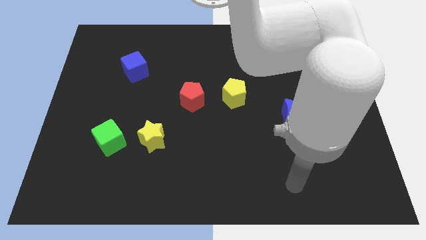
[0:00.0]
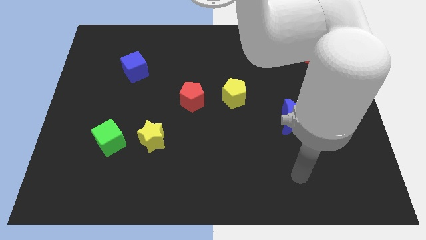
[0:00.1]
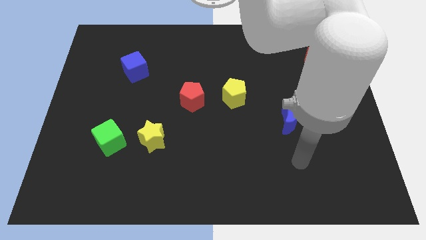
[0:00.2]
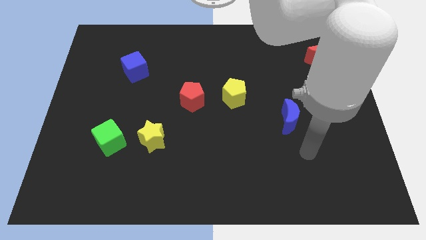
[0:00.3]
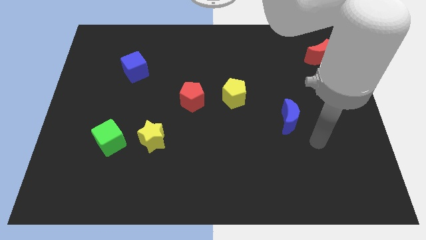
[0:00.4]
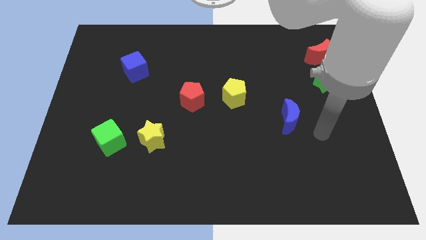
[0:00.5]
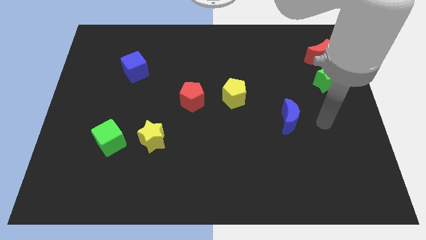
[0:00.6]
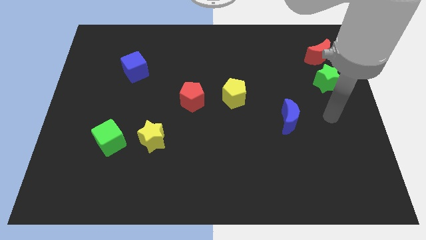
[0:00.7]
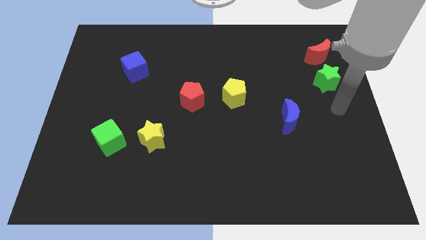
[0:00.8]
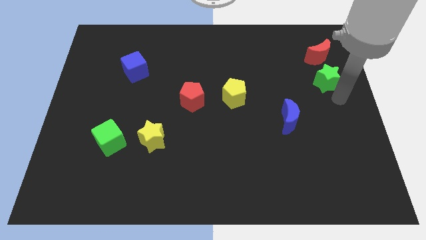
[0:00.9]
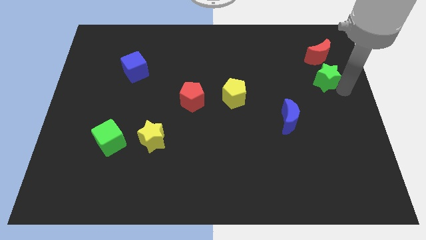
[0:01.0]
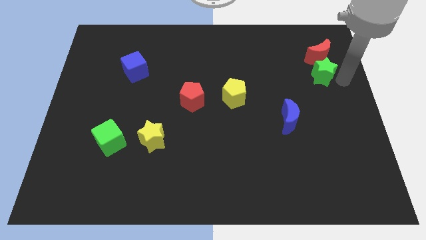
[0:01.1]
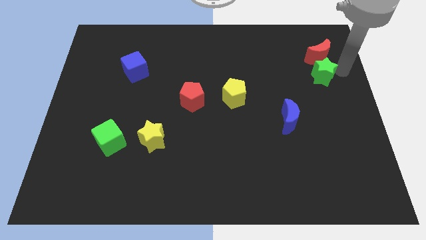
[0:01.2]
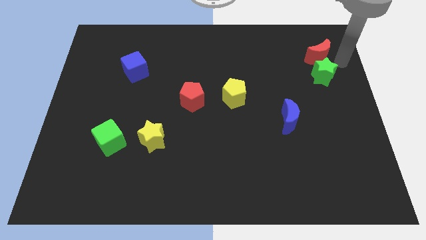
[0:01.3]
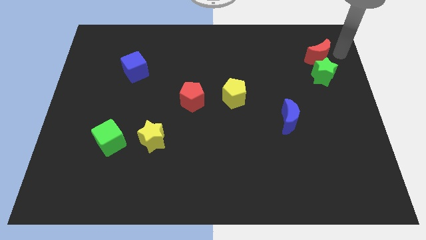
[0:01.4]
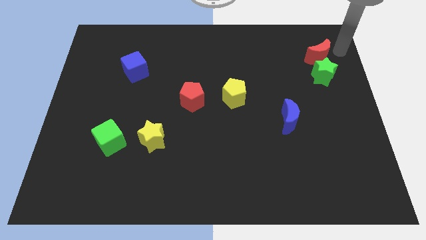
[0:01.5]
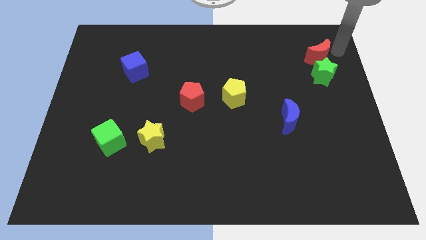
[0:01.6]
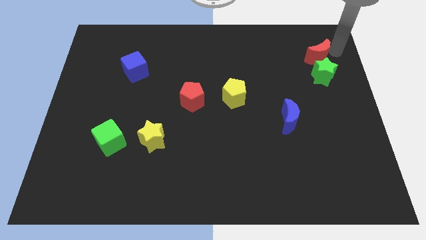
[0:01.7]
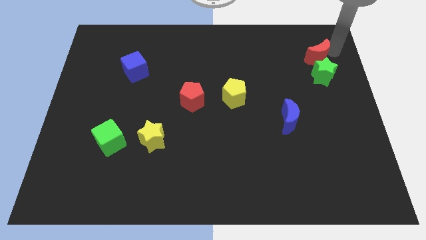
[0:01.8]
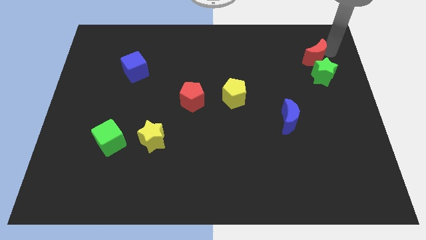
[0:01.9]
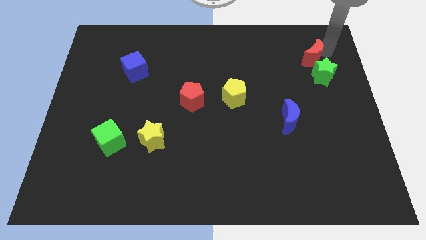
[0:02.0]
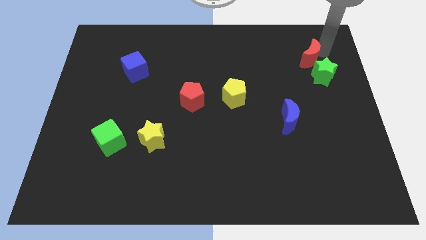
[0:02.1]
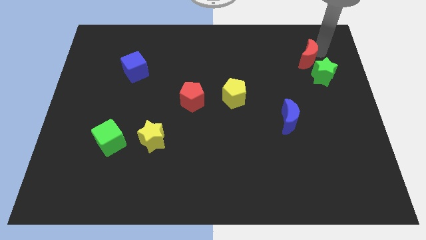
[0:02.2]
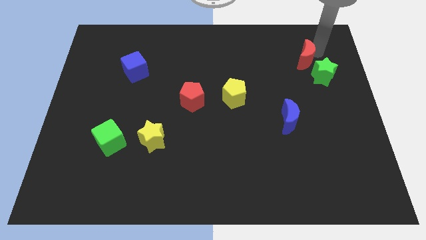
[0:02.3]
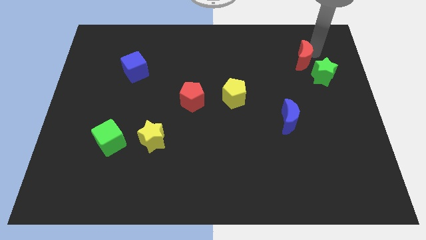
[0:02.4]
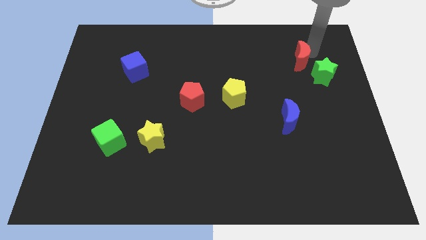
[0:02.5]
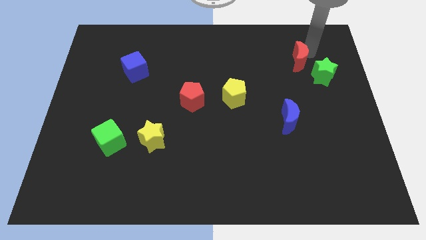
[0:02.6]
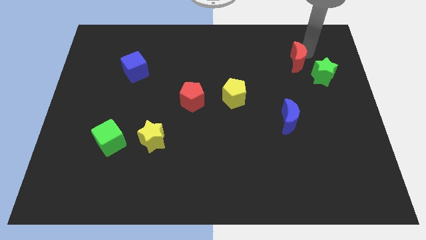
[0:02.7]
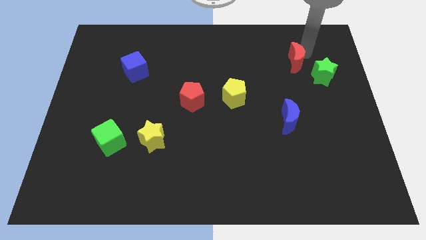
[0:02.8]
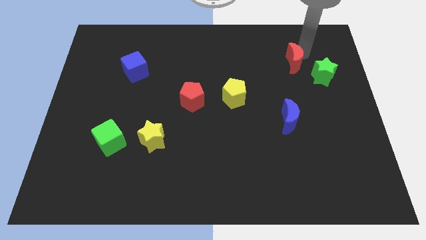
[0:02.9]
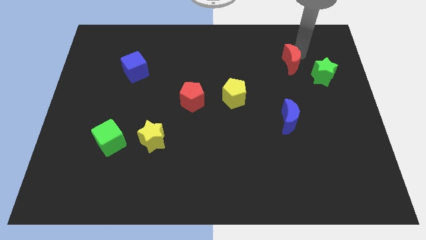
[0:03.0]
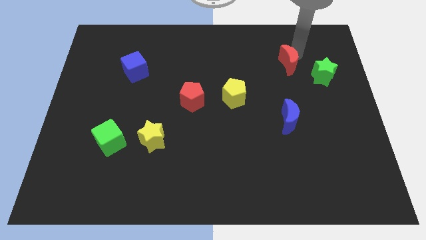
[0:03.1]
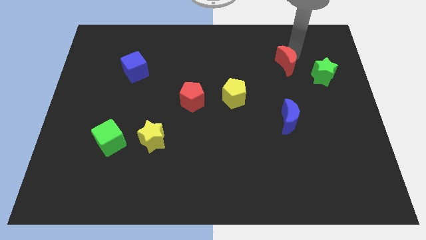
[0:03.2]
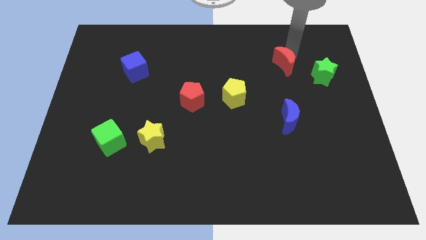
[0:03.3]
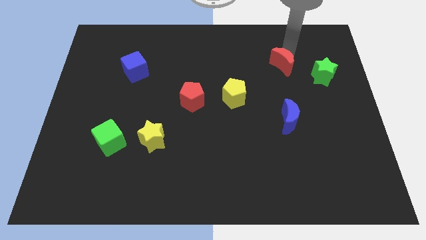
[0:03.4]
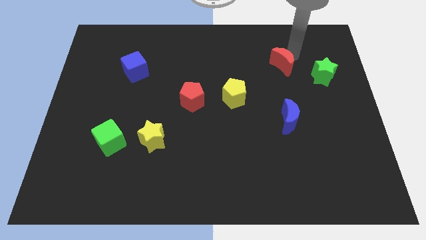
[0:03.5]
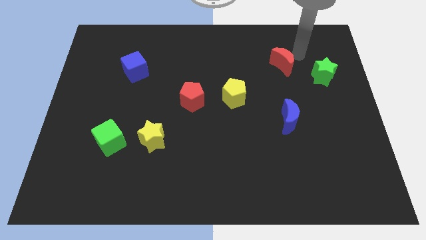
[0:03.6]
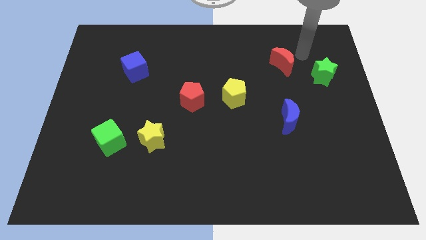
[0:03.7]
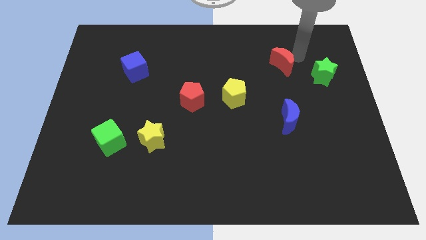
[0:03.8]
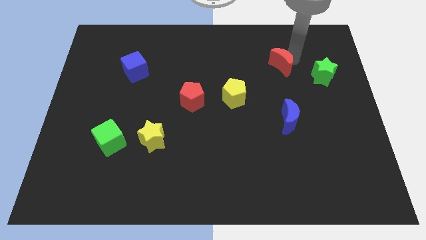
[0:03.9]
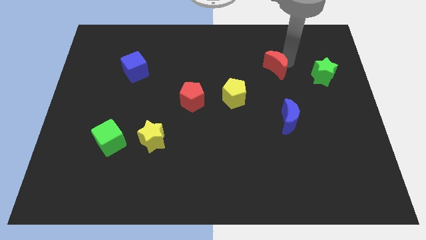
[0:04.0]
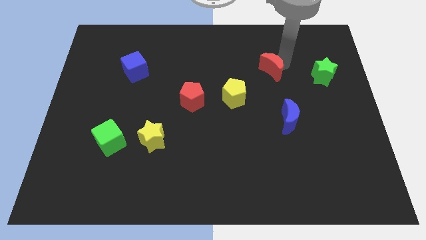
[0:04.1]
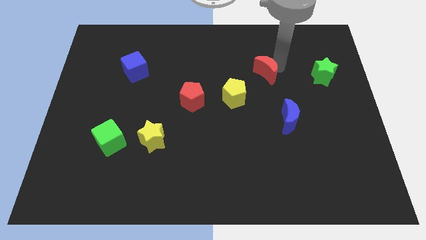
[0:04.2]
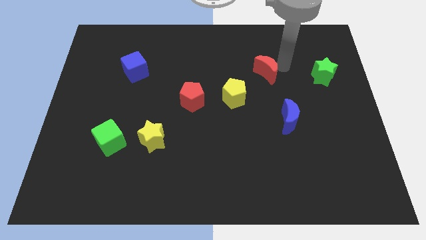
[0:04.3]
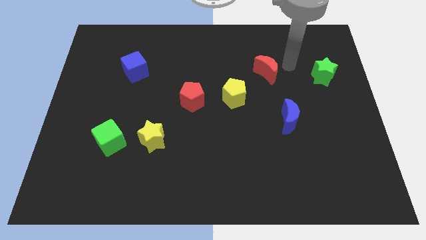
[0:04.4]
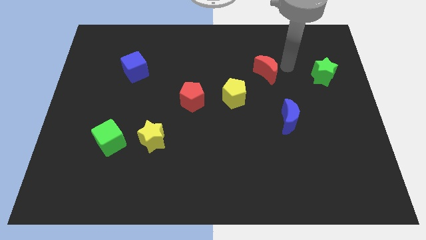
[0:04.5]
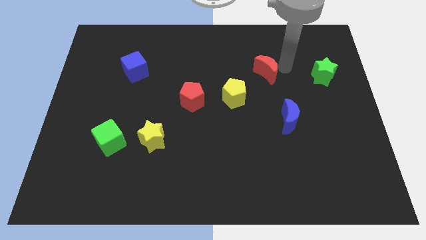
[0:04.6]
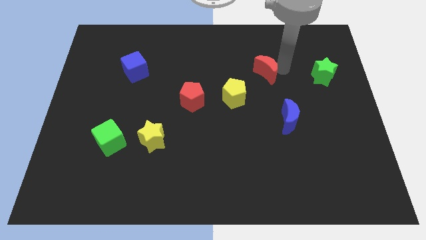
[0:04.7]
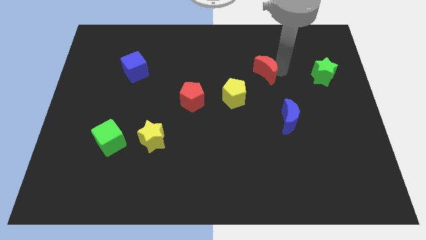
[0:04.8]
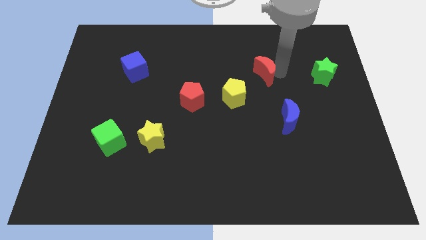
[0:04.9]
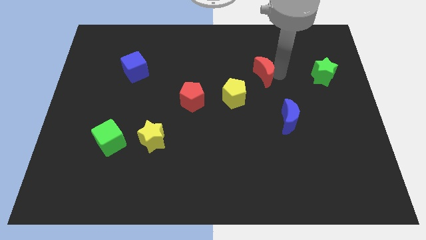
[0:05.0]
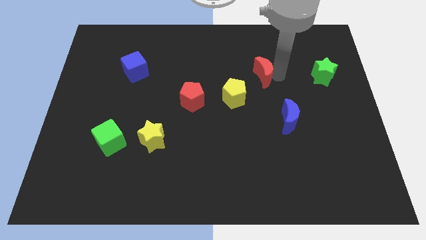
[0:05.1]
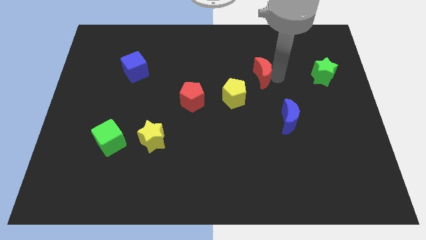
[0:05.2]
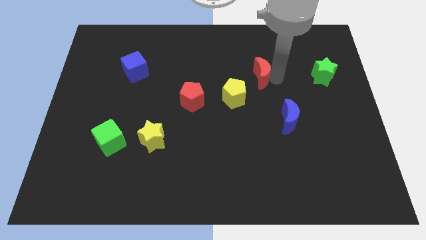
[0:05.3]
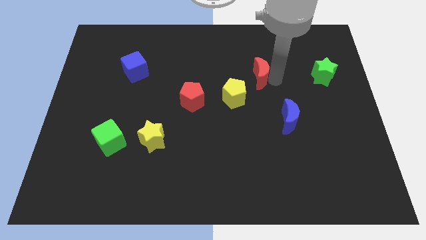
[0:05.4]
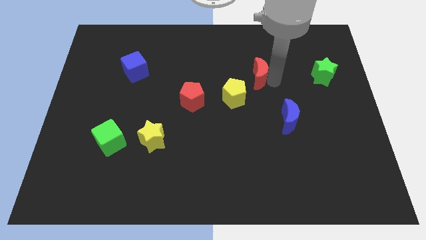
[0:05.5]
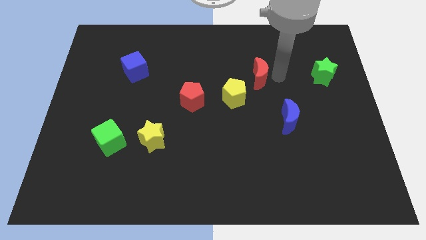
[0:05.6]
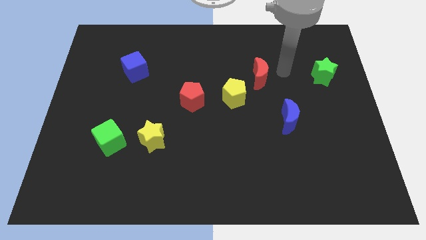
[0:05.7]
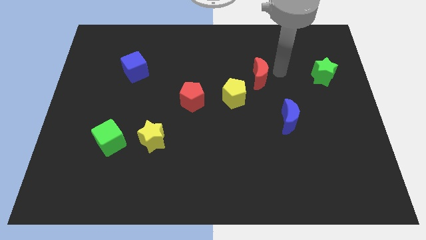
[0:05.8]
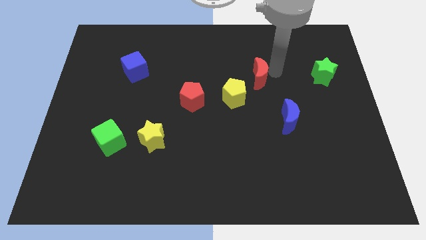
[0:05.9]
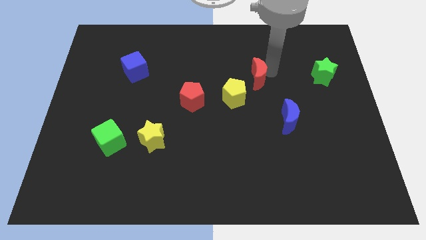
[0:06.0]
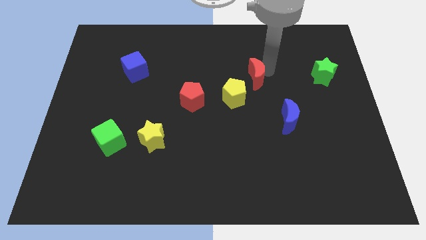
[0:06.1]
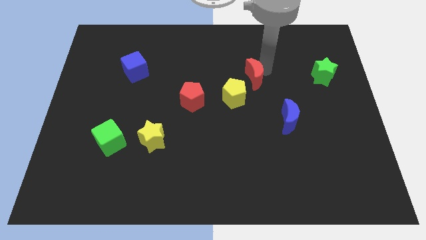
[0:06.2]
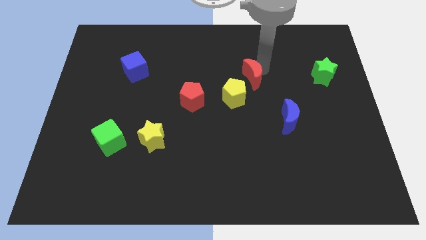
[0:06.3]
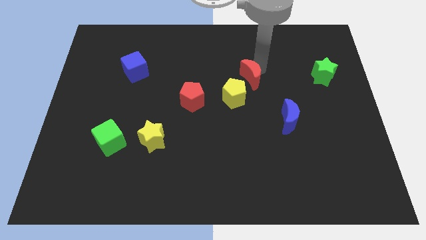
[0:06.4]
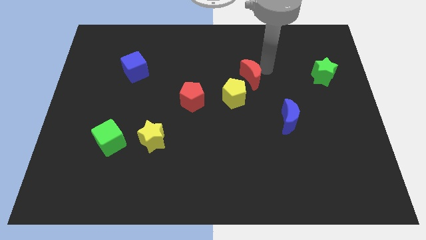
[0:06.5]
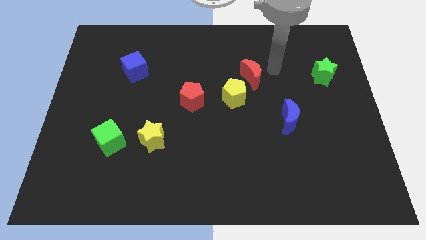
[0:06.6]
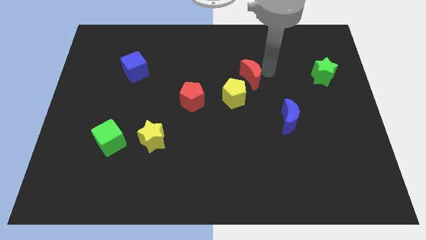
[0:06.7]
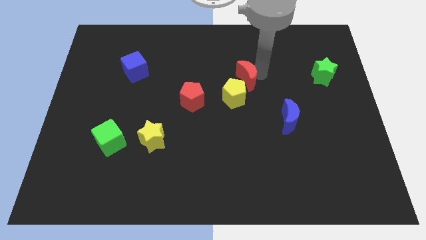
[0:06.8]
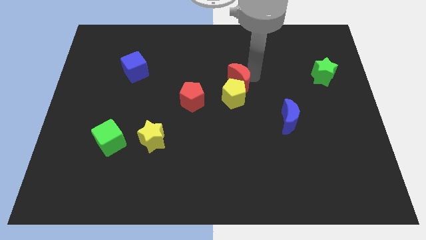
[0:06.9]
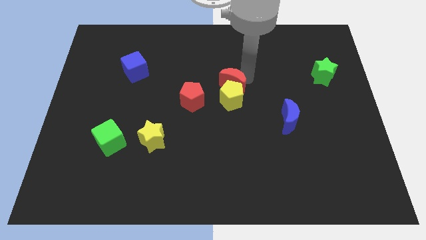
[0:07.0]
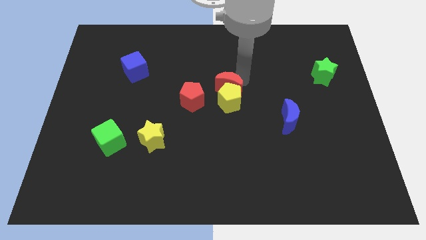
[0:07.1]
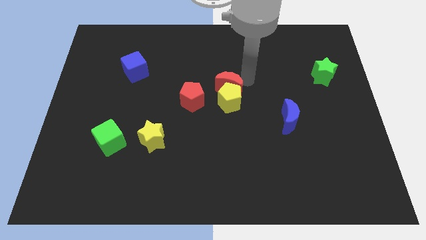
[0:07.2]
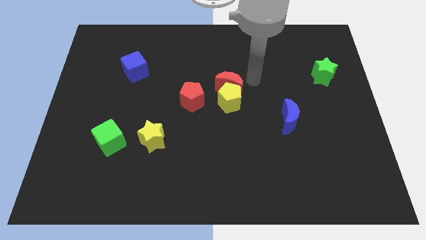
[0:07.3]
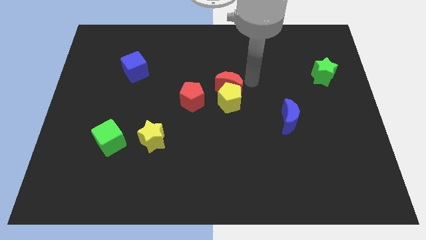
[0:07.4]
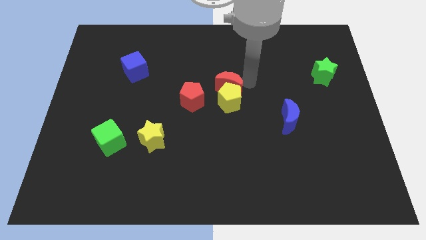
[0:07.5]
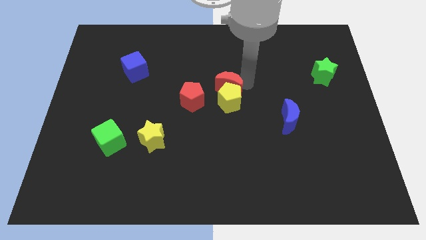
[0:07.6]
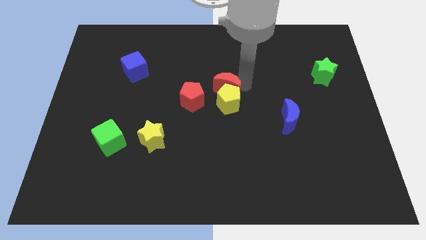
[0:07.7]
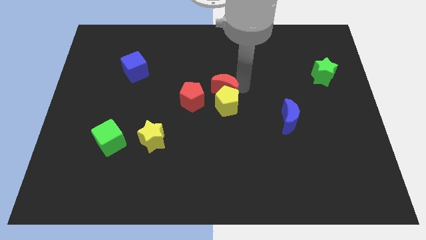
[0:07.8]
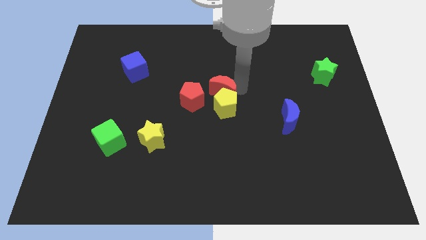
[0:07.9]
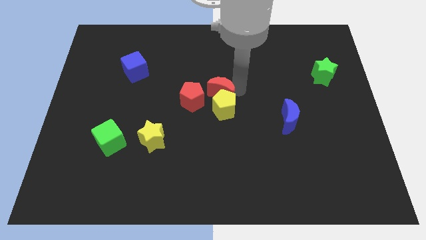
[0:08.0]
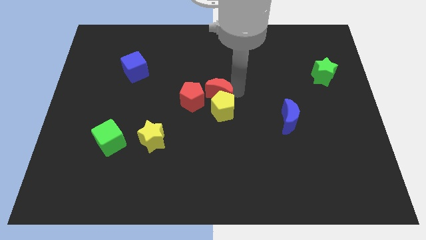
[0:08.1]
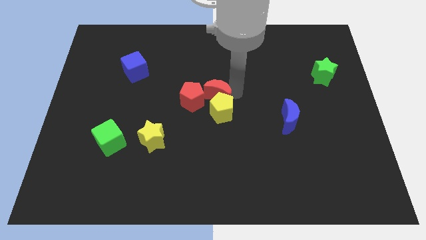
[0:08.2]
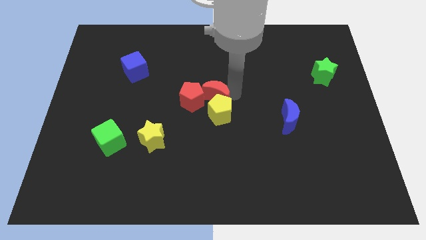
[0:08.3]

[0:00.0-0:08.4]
push the red moon to the red pentagon
